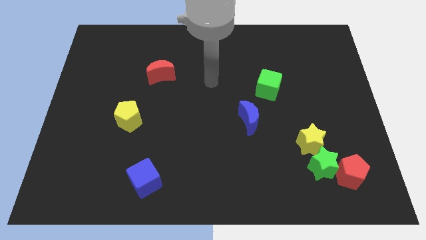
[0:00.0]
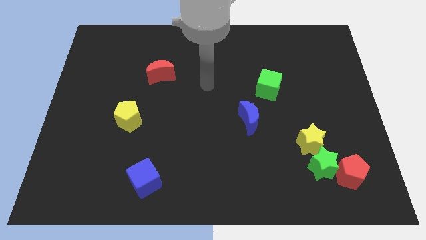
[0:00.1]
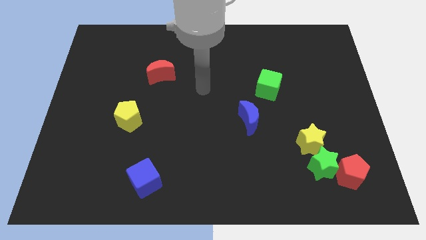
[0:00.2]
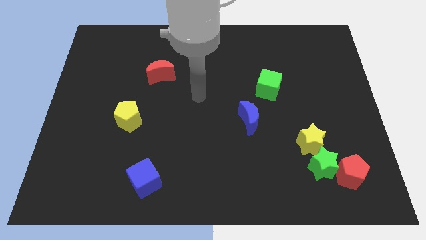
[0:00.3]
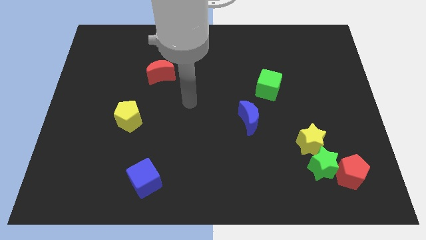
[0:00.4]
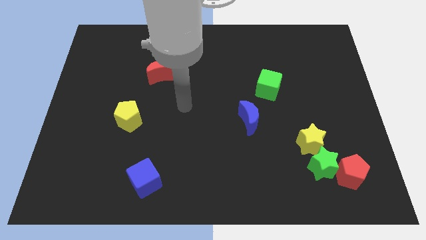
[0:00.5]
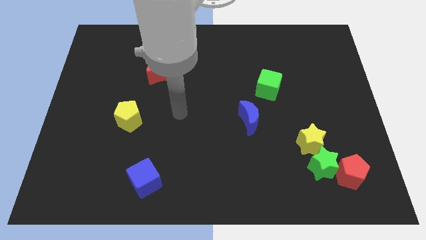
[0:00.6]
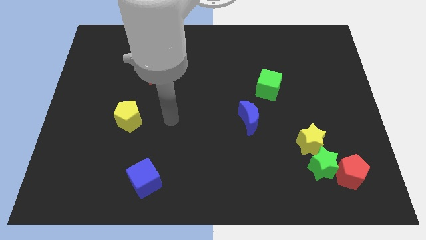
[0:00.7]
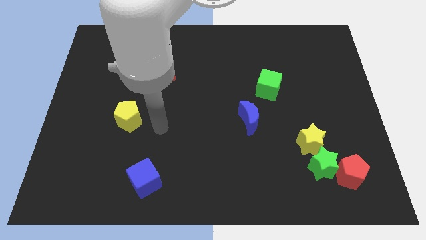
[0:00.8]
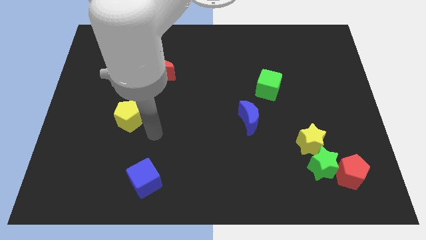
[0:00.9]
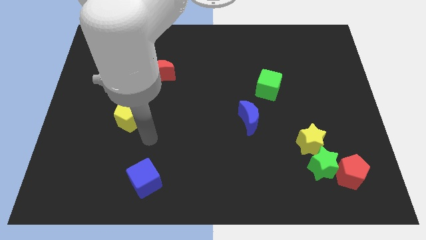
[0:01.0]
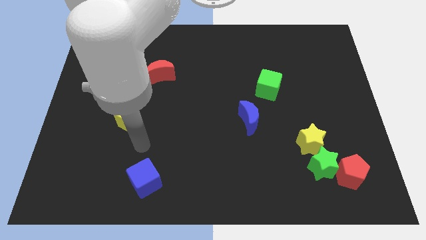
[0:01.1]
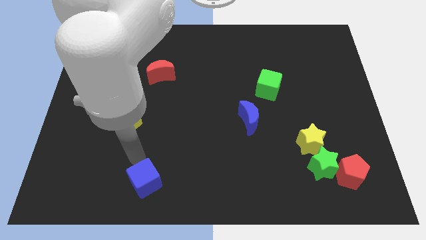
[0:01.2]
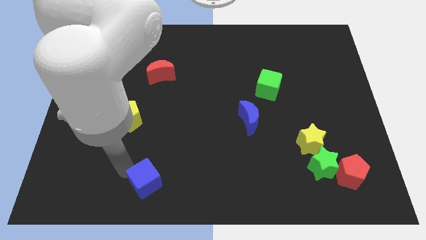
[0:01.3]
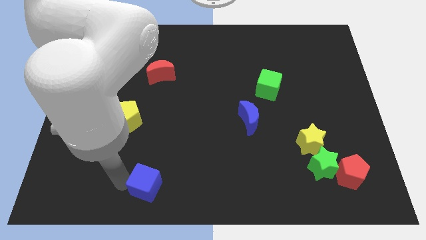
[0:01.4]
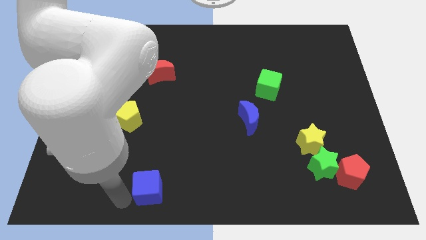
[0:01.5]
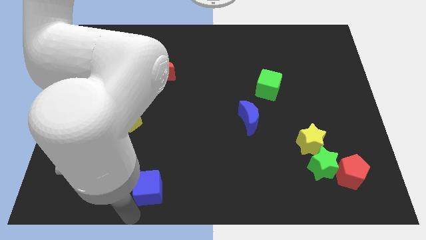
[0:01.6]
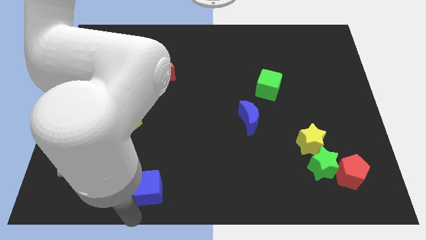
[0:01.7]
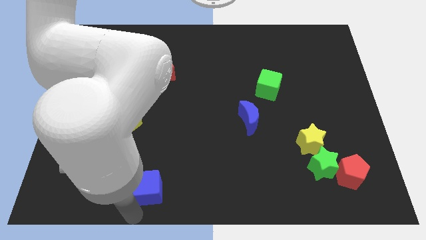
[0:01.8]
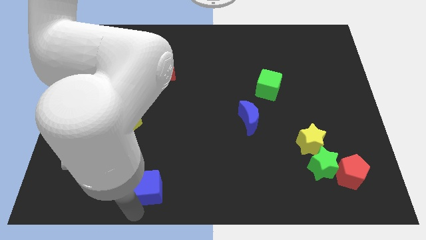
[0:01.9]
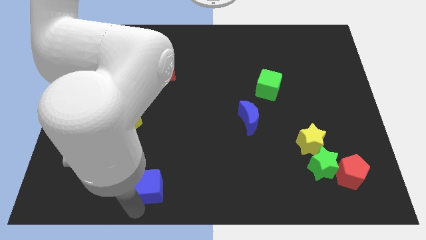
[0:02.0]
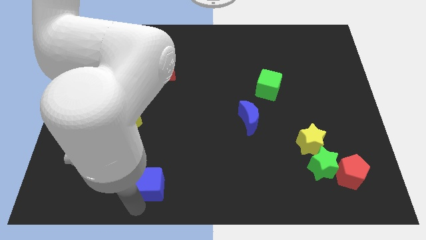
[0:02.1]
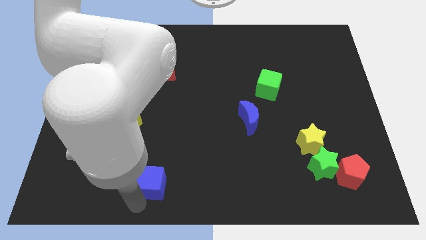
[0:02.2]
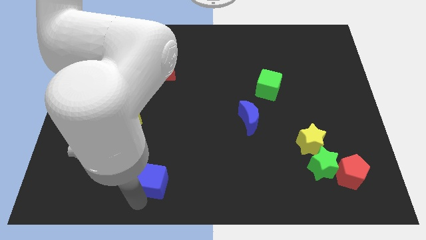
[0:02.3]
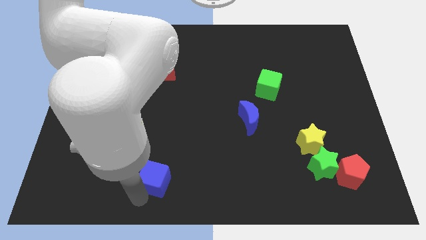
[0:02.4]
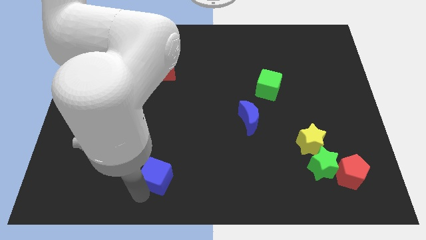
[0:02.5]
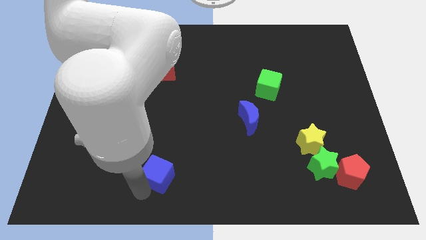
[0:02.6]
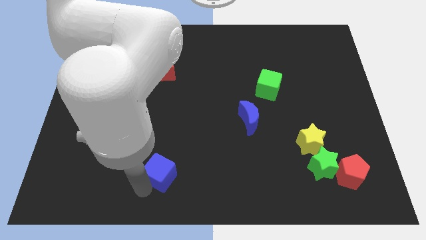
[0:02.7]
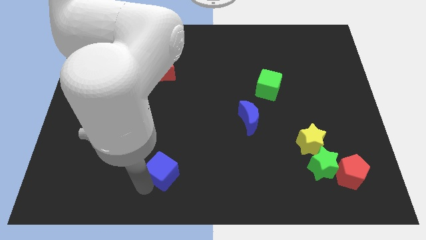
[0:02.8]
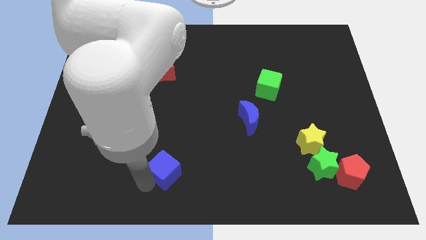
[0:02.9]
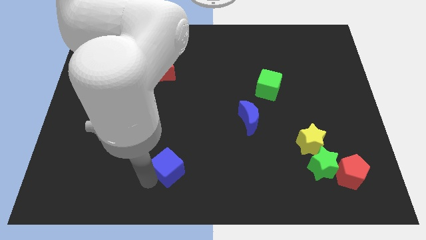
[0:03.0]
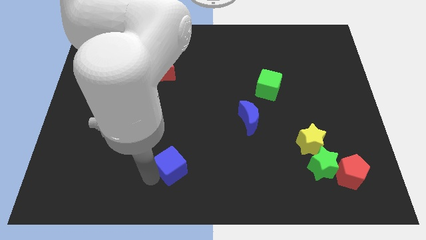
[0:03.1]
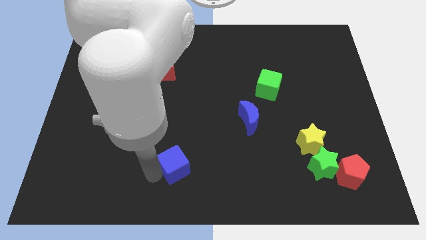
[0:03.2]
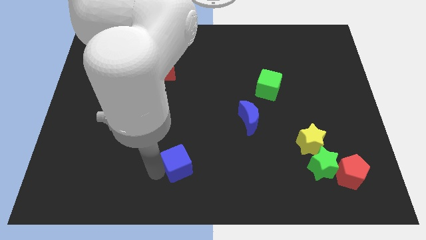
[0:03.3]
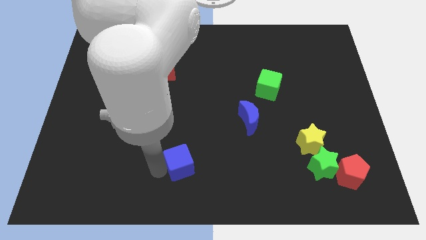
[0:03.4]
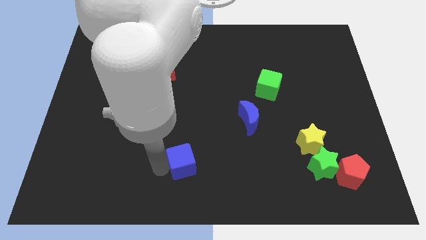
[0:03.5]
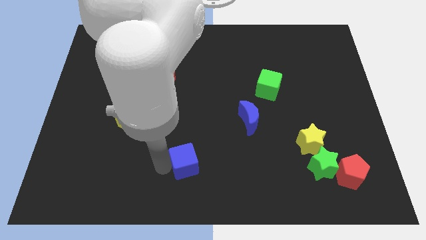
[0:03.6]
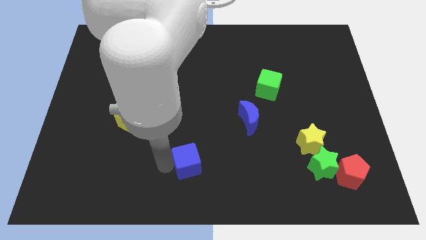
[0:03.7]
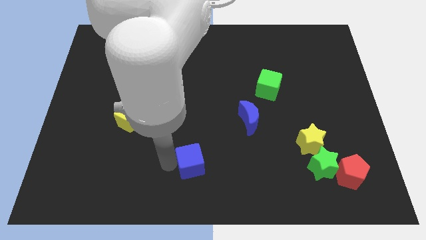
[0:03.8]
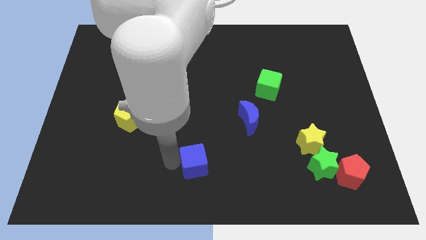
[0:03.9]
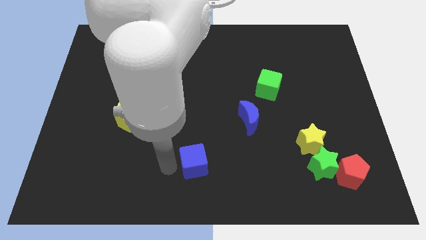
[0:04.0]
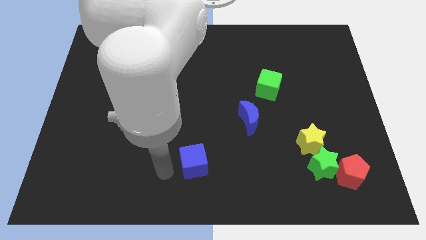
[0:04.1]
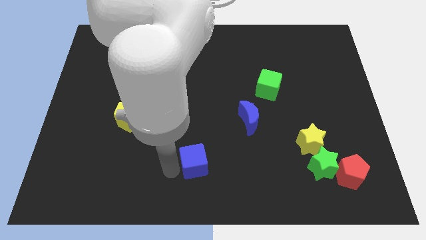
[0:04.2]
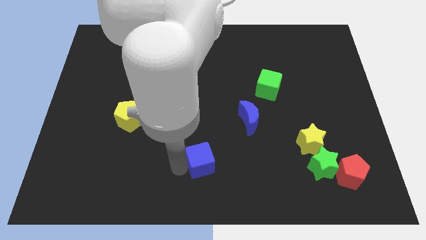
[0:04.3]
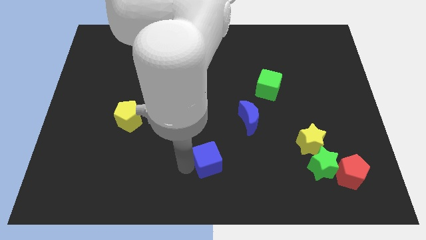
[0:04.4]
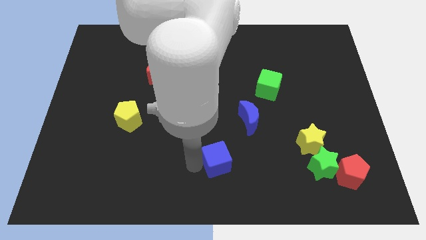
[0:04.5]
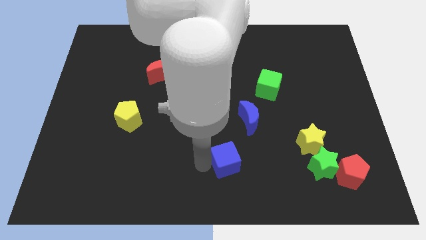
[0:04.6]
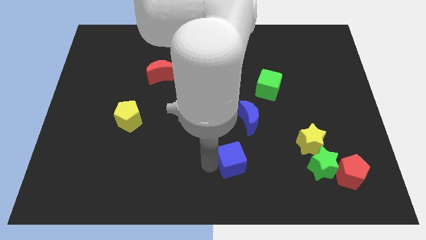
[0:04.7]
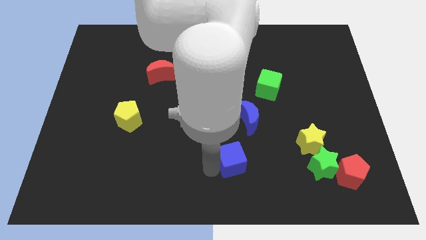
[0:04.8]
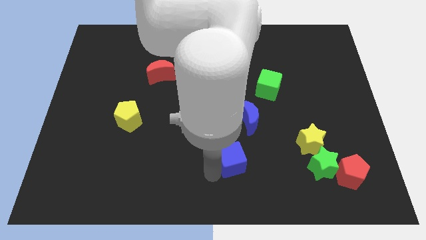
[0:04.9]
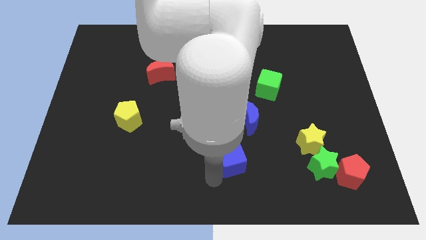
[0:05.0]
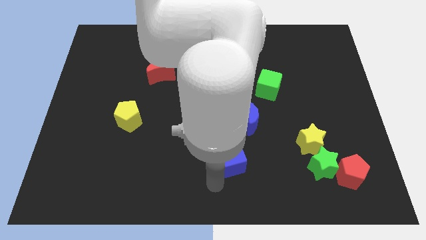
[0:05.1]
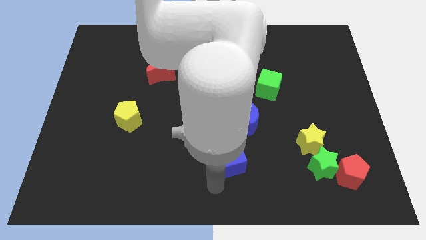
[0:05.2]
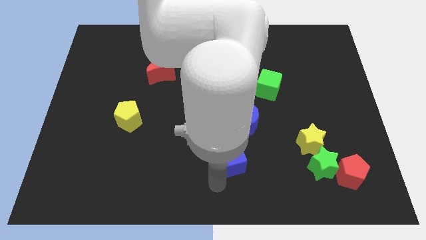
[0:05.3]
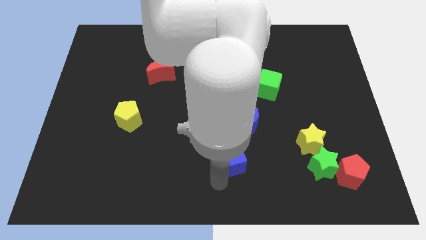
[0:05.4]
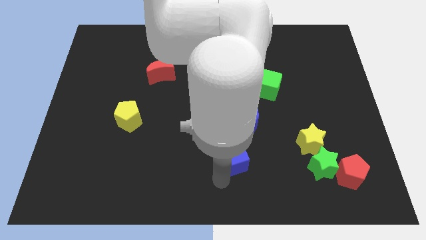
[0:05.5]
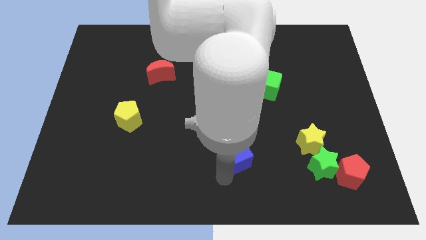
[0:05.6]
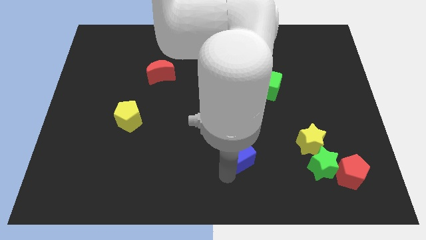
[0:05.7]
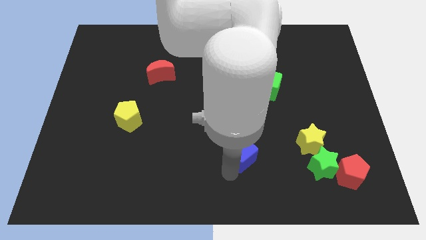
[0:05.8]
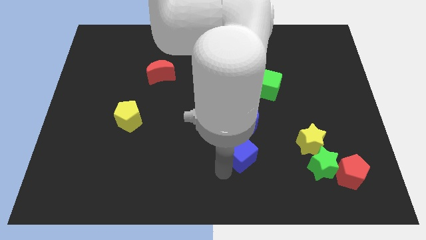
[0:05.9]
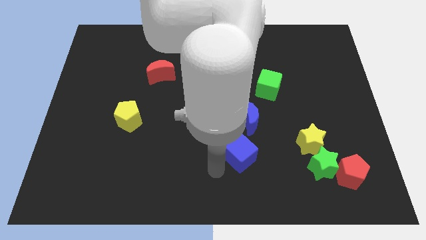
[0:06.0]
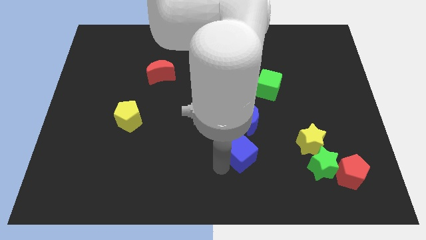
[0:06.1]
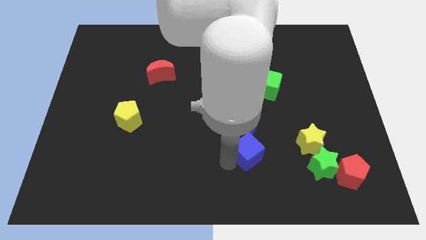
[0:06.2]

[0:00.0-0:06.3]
push the blue cube just left of the yellow star

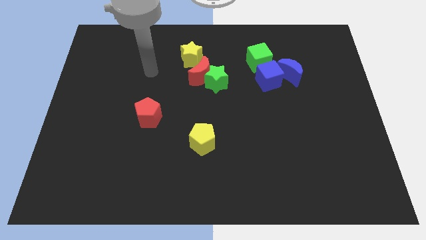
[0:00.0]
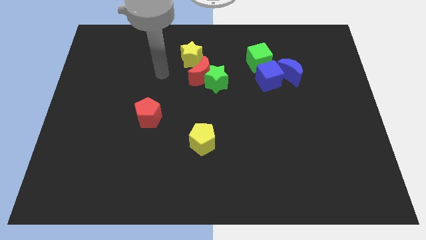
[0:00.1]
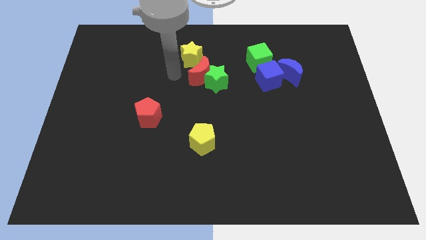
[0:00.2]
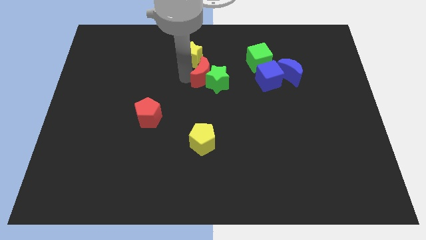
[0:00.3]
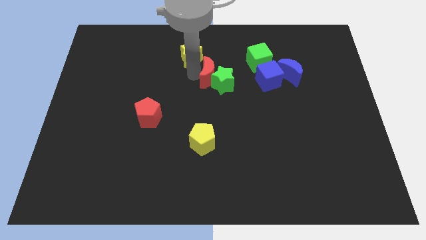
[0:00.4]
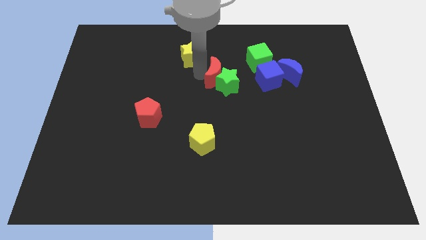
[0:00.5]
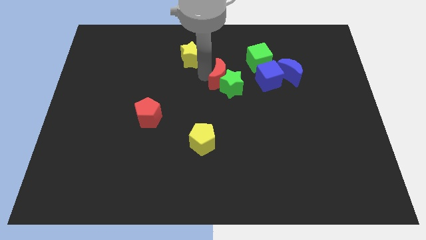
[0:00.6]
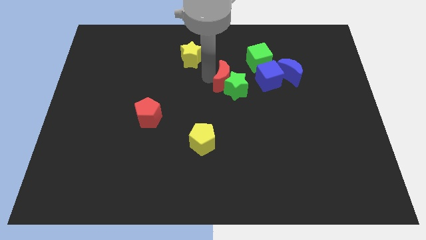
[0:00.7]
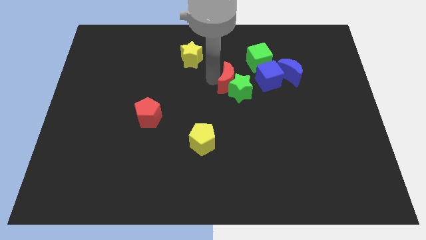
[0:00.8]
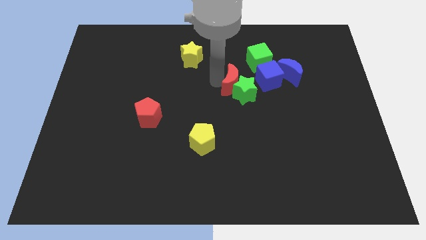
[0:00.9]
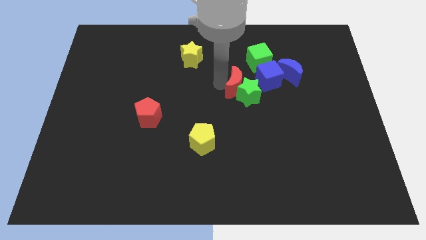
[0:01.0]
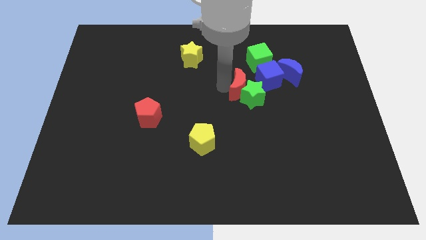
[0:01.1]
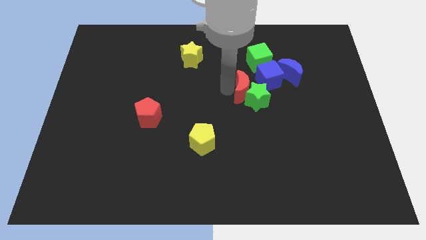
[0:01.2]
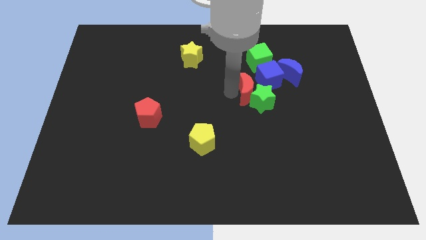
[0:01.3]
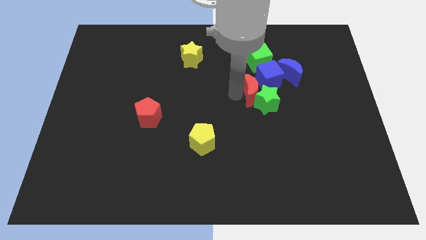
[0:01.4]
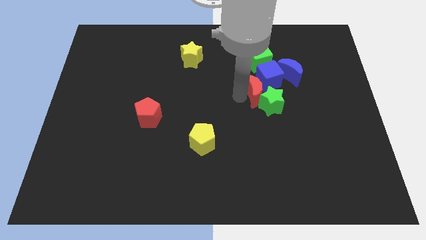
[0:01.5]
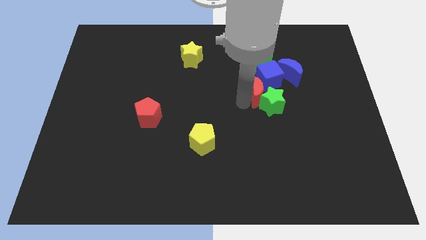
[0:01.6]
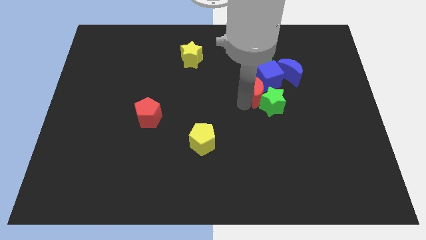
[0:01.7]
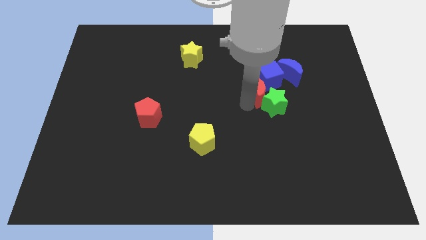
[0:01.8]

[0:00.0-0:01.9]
put the green star to the bottom side of the blue moon
